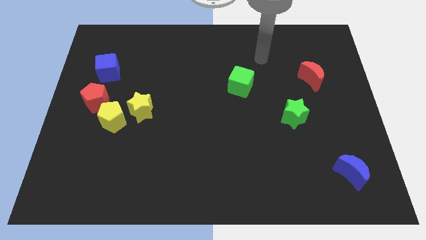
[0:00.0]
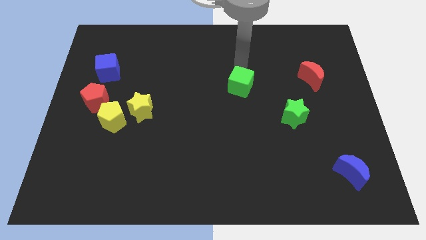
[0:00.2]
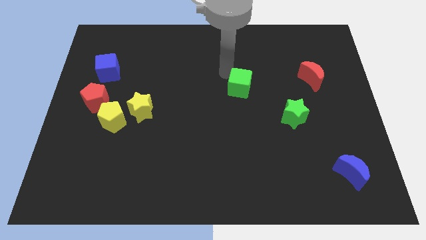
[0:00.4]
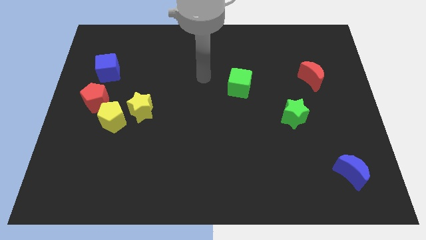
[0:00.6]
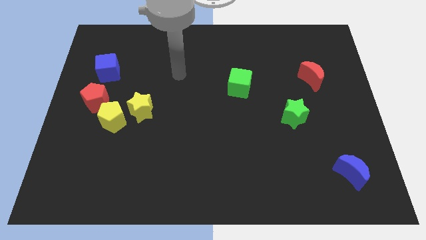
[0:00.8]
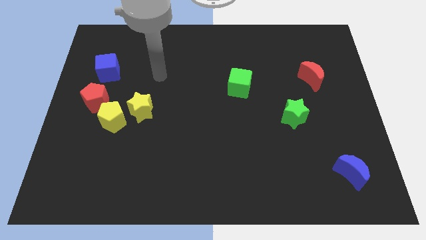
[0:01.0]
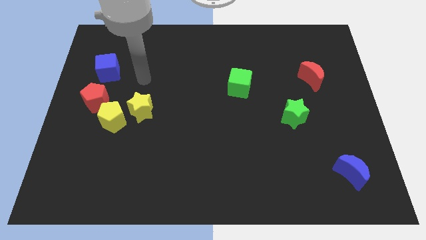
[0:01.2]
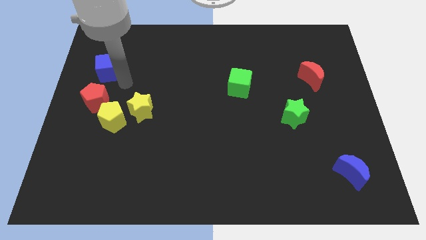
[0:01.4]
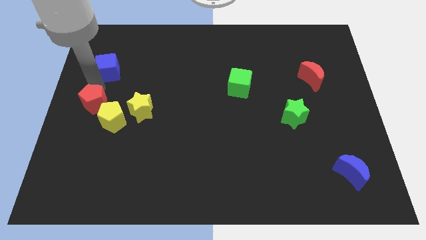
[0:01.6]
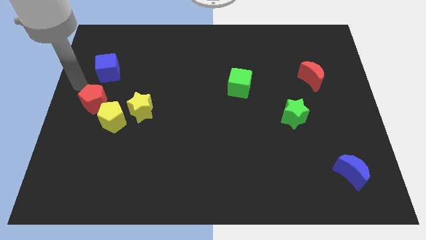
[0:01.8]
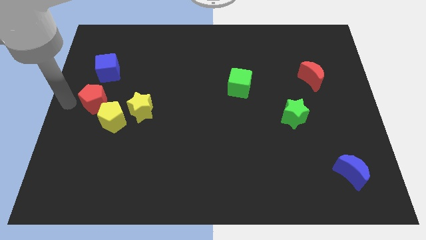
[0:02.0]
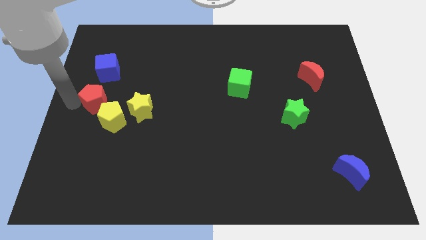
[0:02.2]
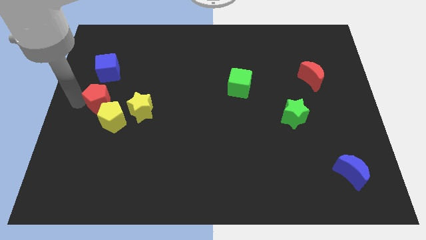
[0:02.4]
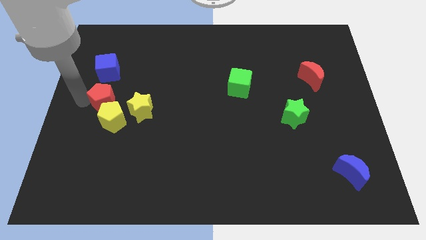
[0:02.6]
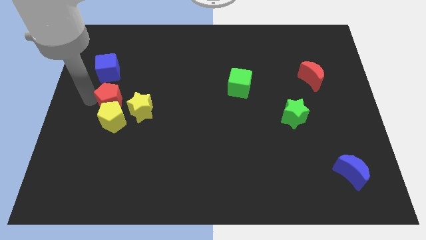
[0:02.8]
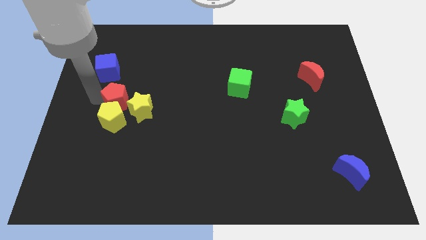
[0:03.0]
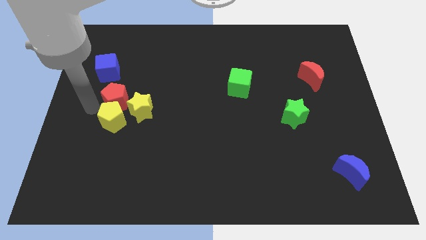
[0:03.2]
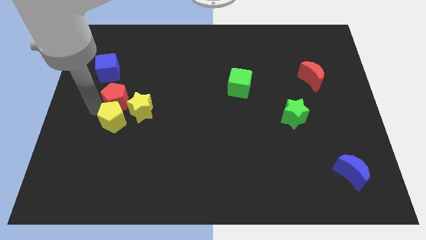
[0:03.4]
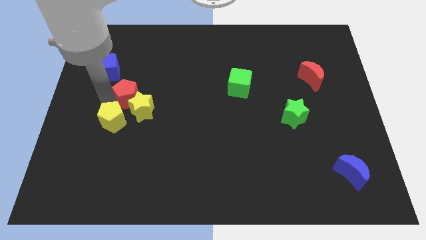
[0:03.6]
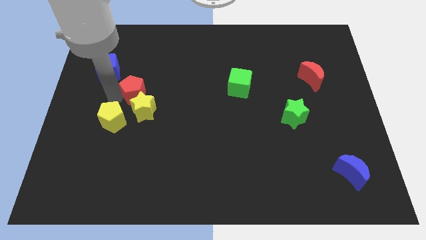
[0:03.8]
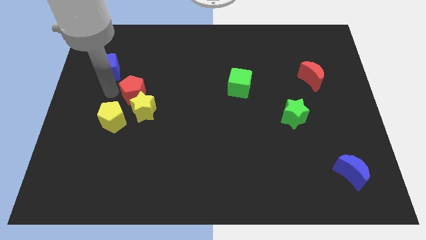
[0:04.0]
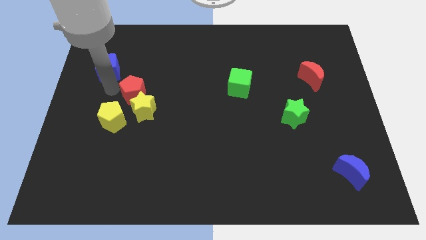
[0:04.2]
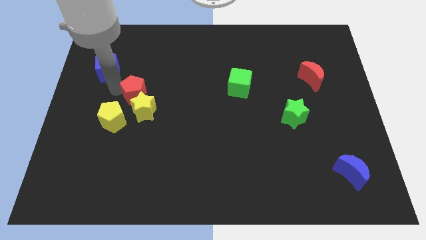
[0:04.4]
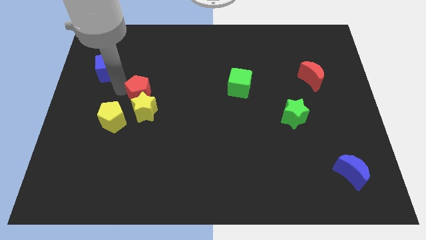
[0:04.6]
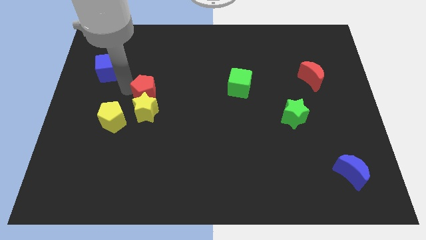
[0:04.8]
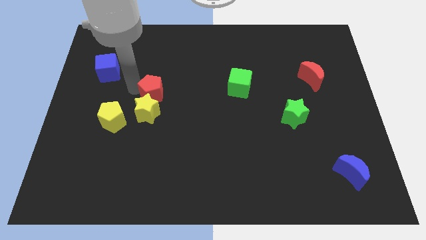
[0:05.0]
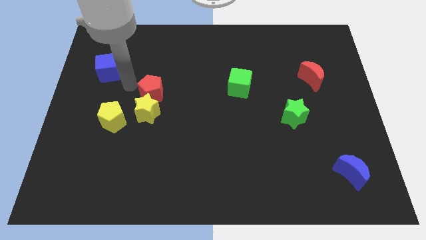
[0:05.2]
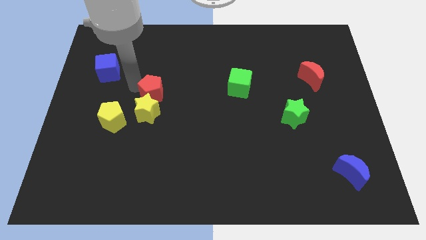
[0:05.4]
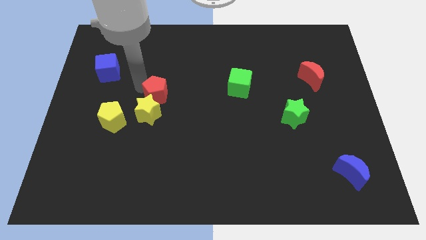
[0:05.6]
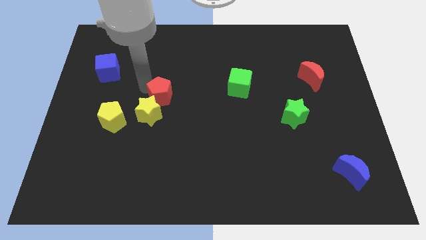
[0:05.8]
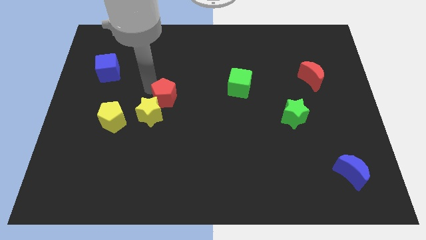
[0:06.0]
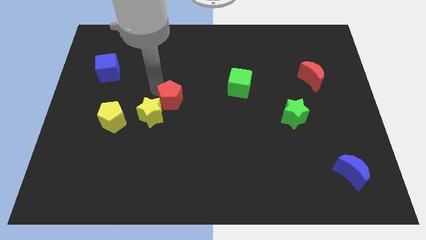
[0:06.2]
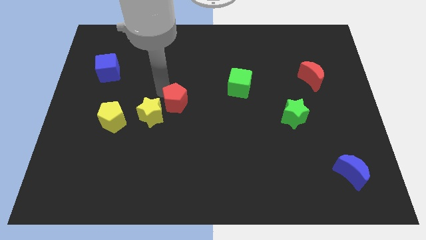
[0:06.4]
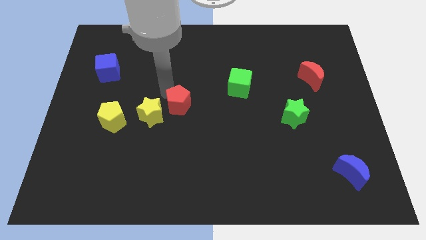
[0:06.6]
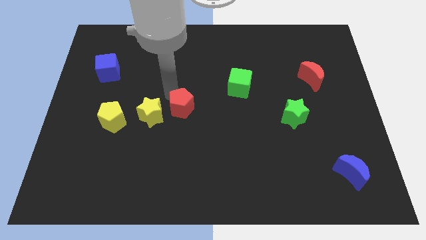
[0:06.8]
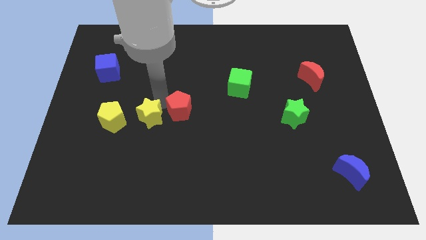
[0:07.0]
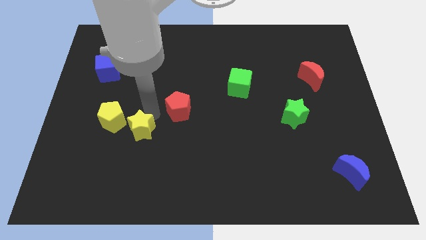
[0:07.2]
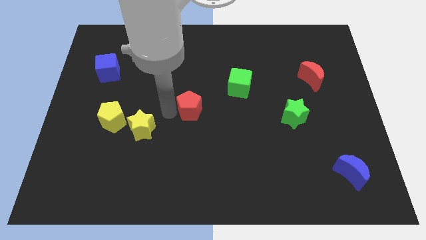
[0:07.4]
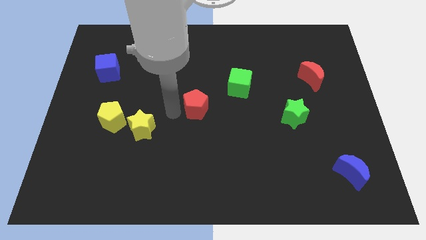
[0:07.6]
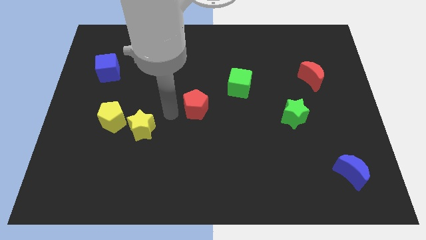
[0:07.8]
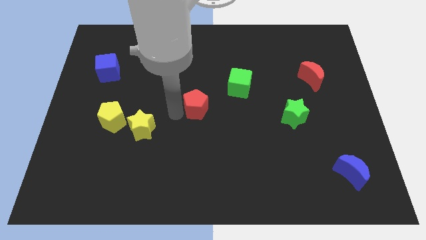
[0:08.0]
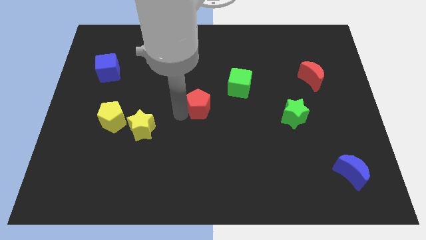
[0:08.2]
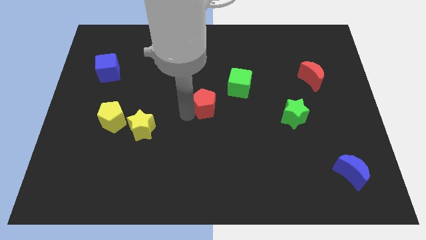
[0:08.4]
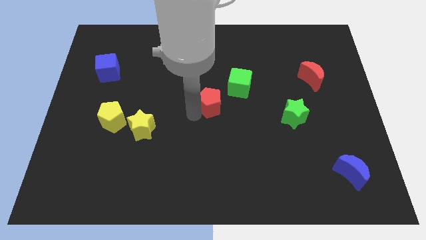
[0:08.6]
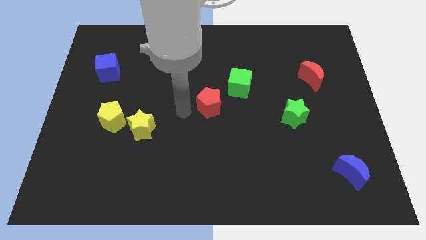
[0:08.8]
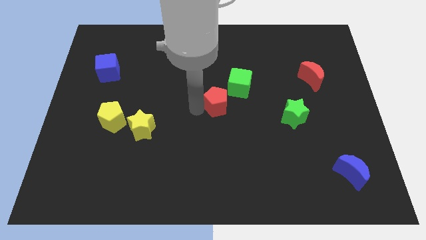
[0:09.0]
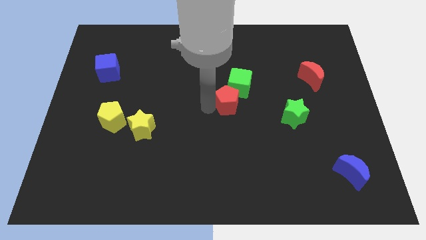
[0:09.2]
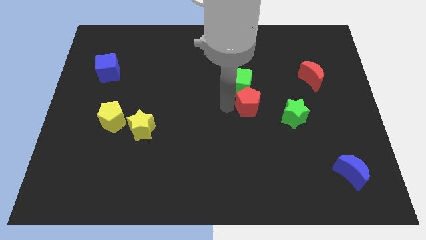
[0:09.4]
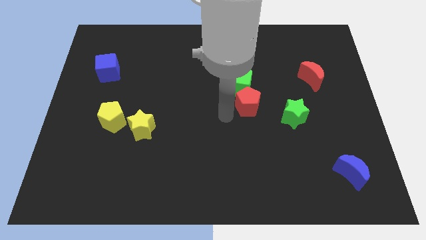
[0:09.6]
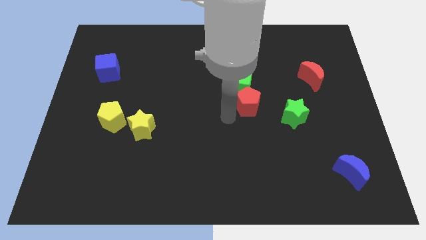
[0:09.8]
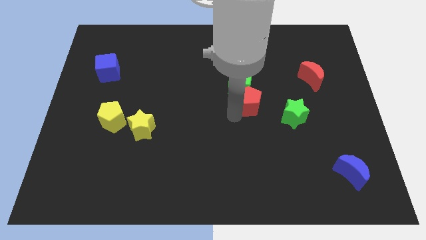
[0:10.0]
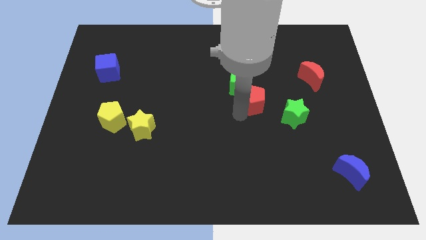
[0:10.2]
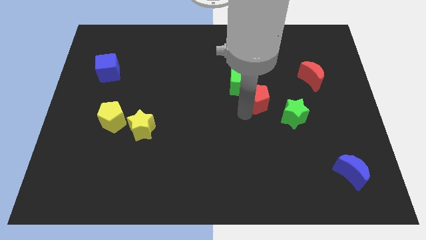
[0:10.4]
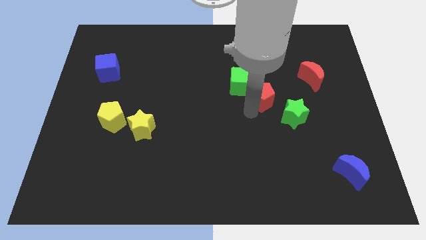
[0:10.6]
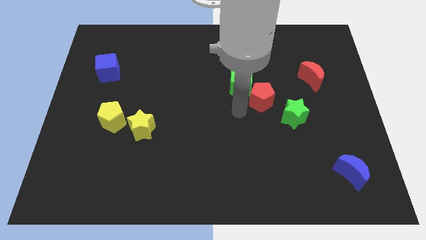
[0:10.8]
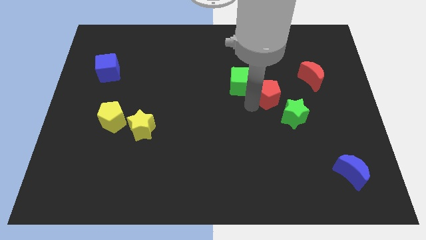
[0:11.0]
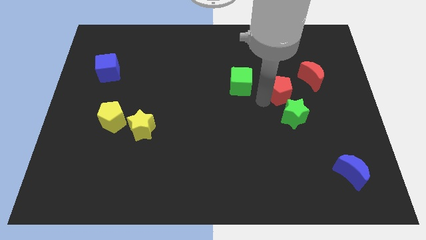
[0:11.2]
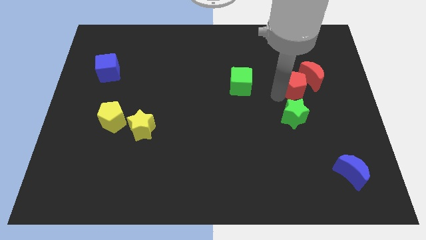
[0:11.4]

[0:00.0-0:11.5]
put the red pentagon next to the red moon

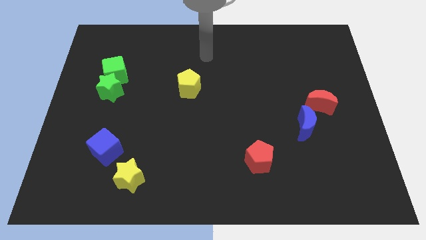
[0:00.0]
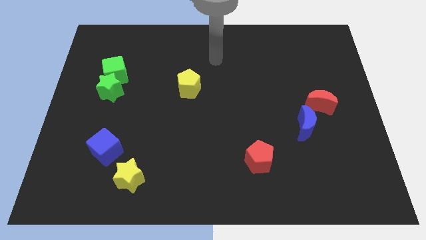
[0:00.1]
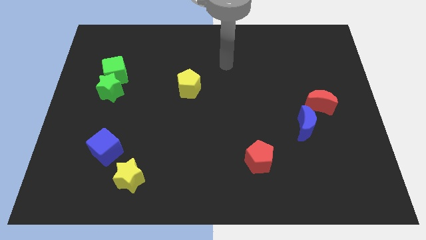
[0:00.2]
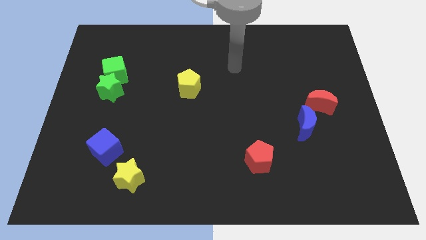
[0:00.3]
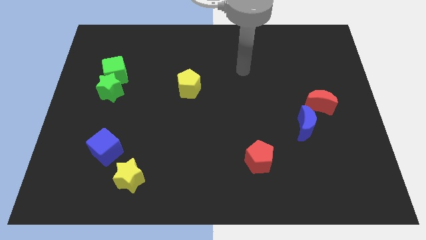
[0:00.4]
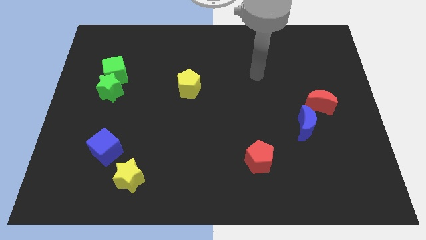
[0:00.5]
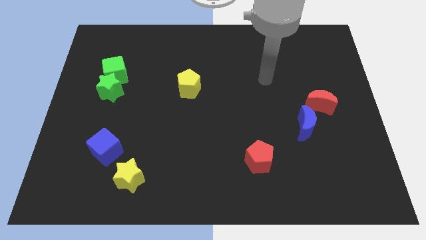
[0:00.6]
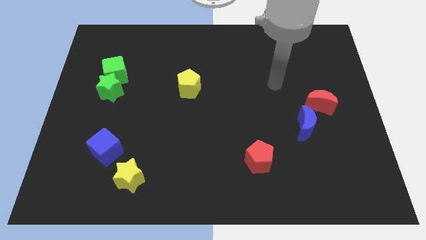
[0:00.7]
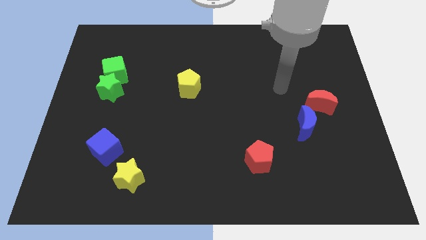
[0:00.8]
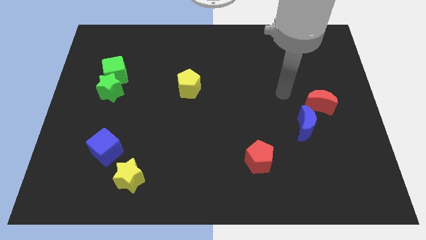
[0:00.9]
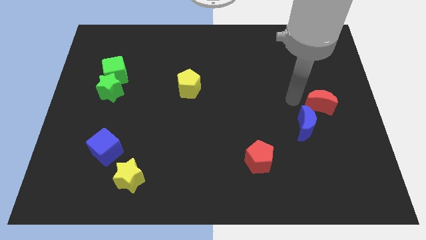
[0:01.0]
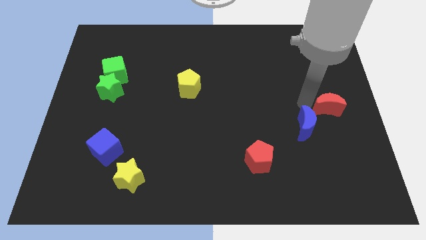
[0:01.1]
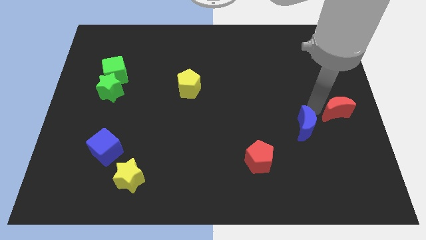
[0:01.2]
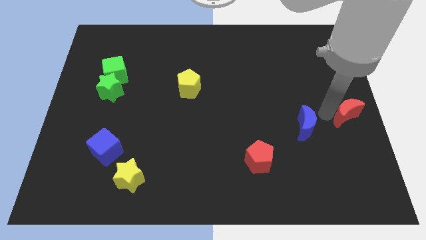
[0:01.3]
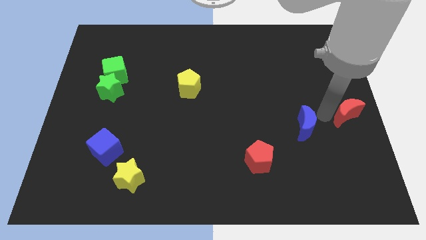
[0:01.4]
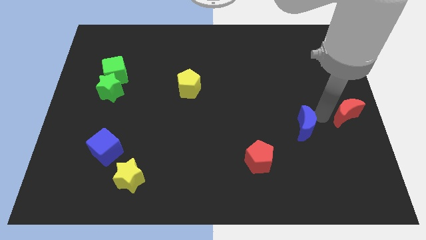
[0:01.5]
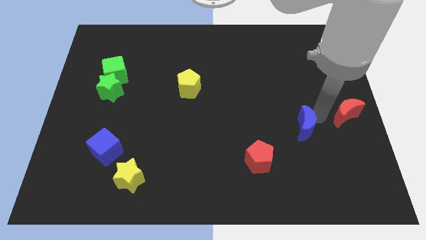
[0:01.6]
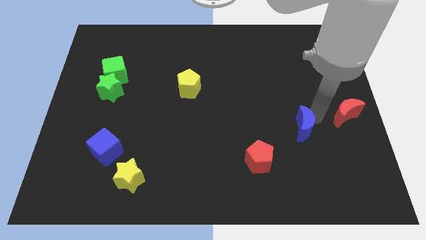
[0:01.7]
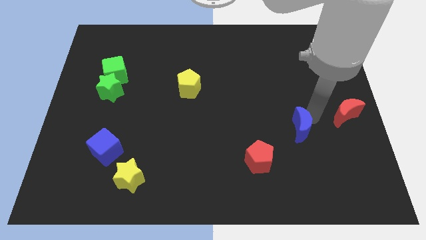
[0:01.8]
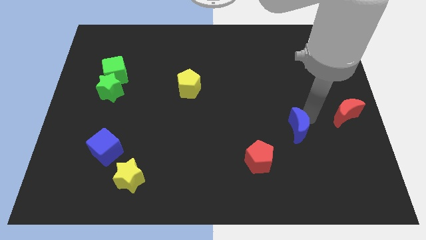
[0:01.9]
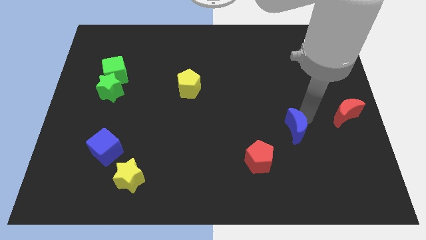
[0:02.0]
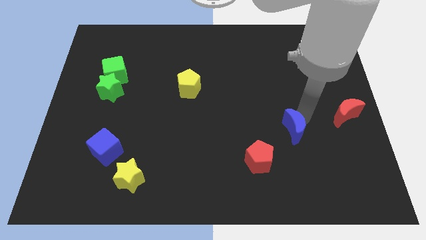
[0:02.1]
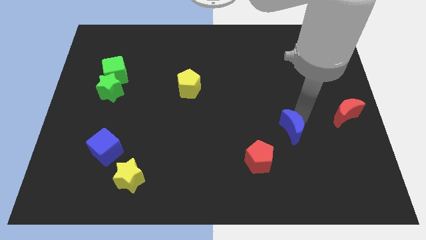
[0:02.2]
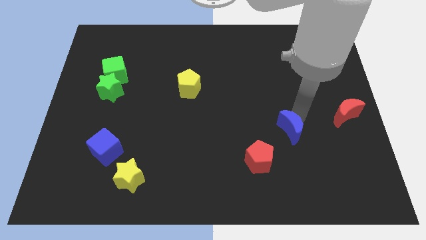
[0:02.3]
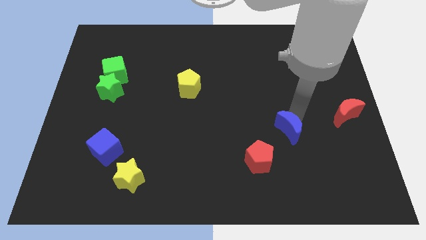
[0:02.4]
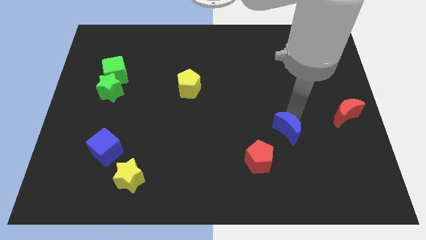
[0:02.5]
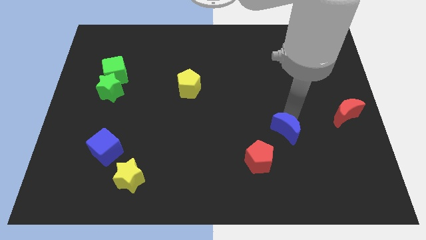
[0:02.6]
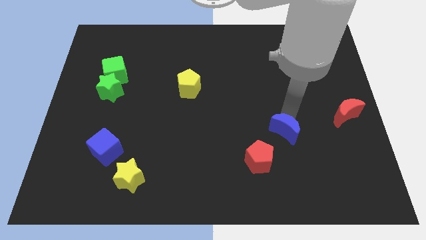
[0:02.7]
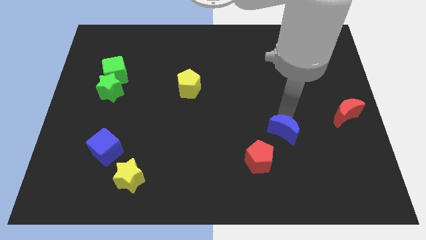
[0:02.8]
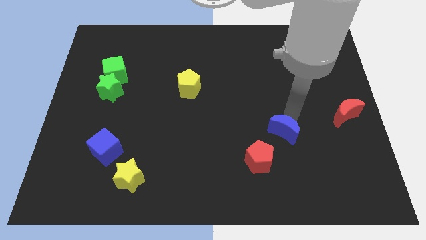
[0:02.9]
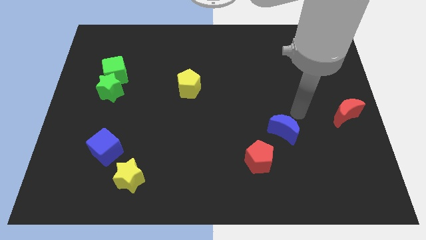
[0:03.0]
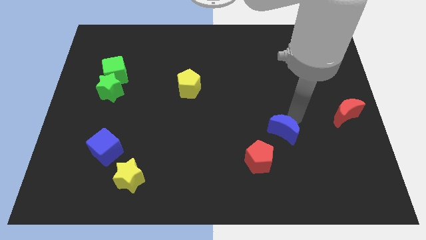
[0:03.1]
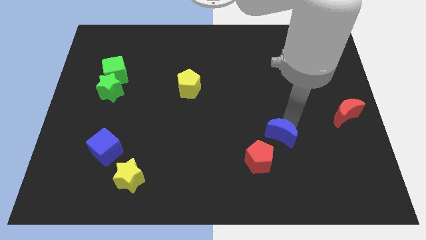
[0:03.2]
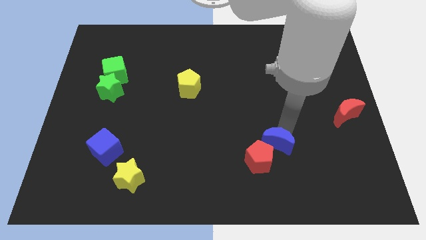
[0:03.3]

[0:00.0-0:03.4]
put the blue moon towards the red pentagon
